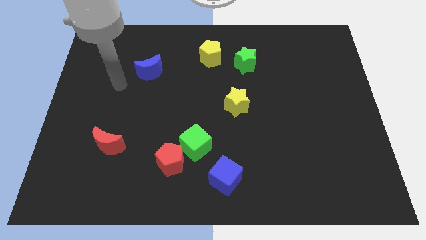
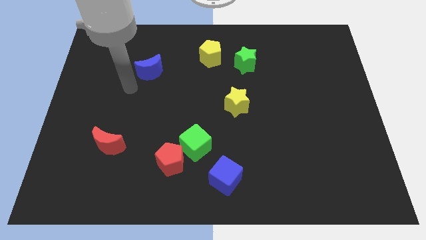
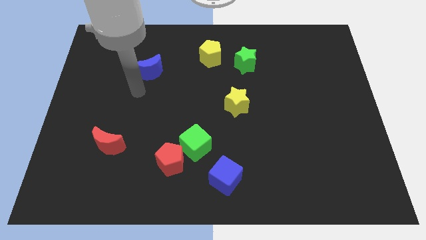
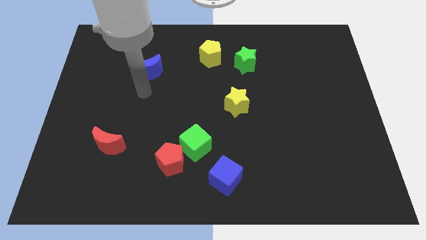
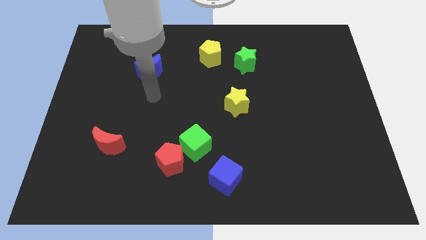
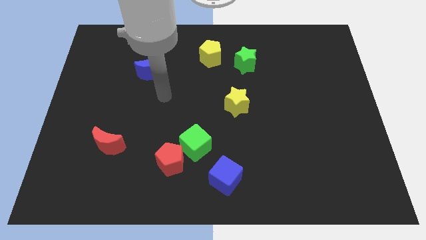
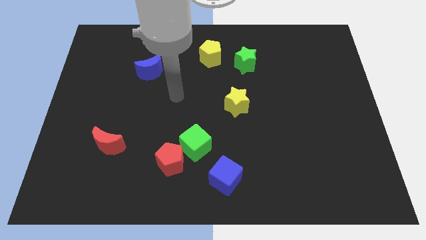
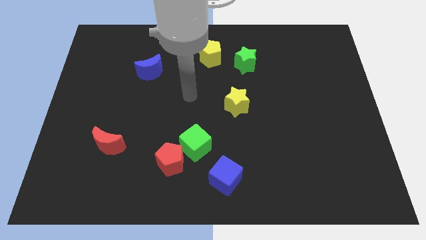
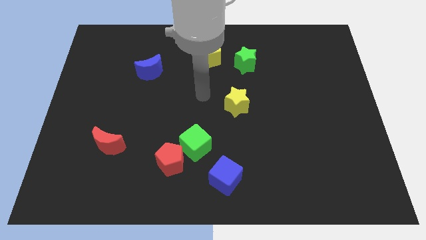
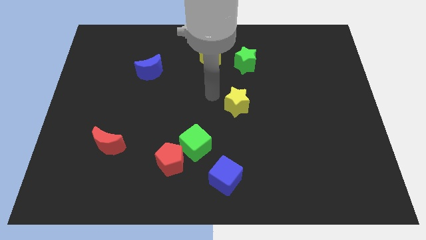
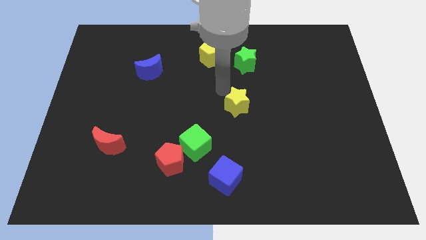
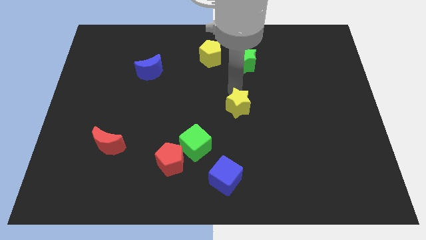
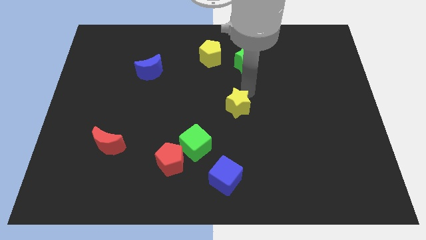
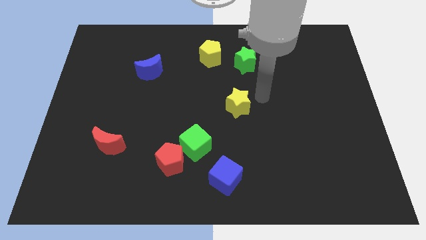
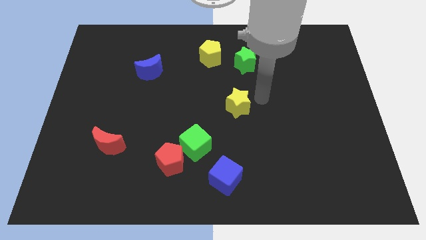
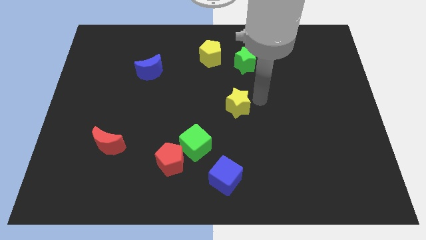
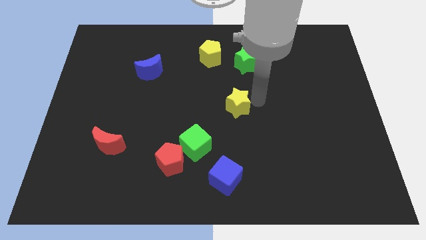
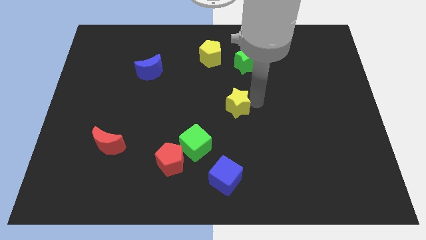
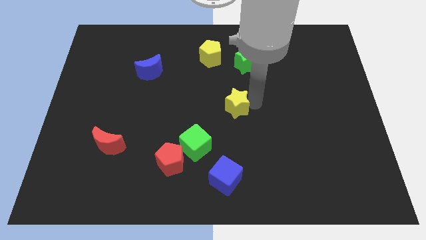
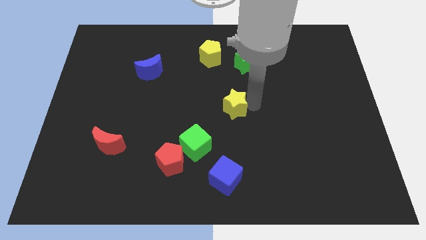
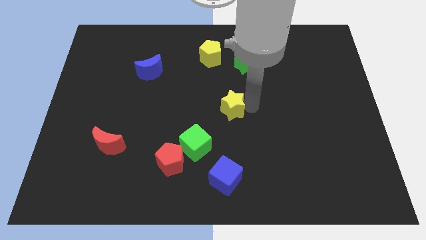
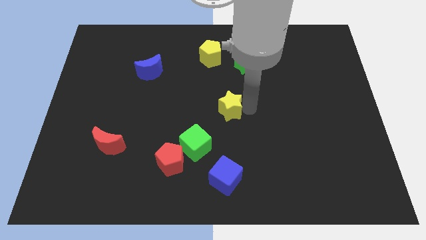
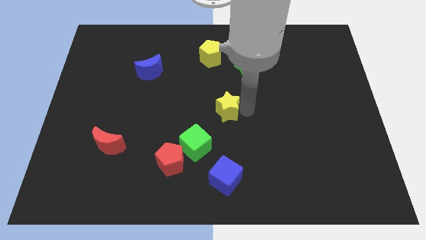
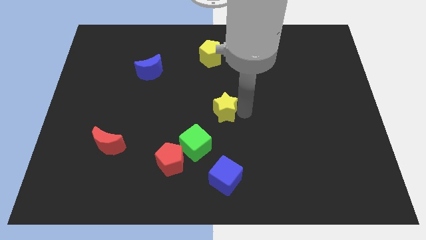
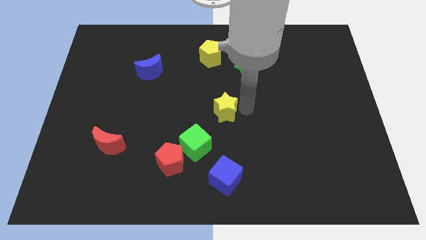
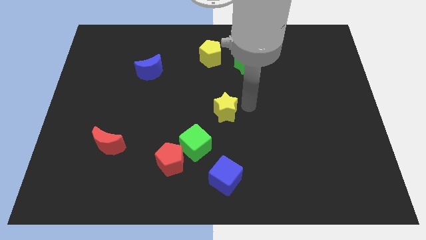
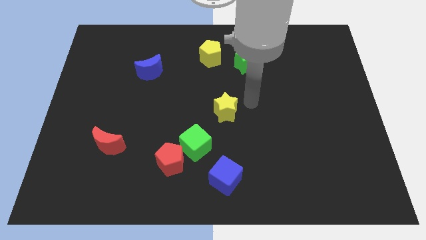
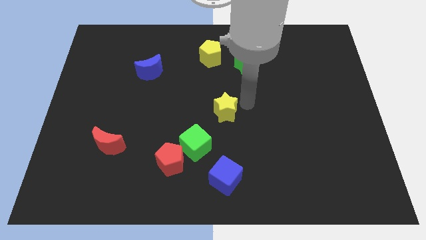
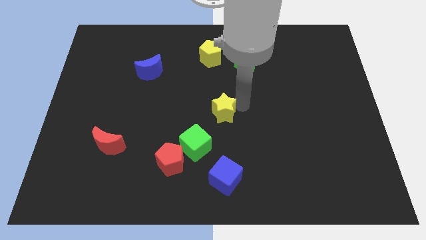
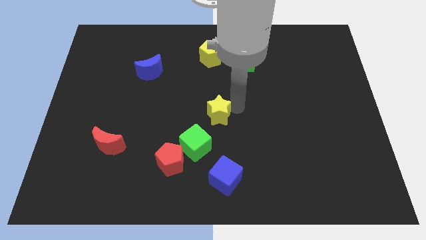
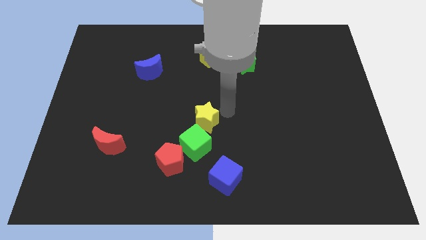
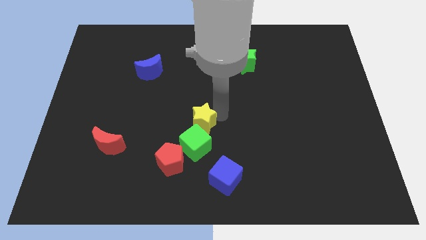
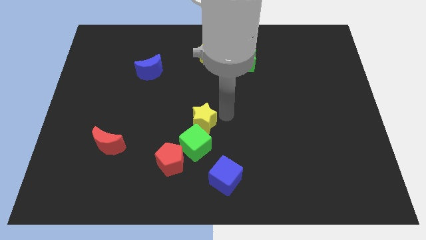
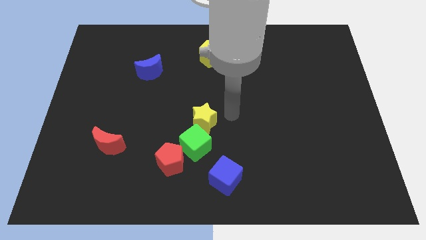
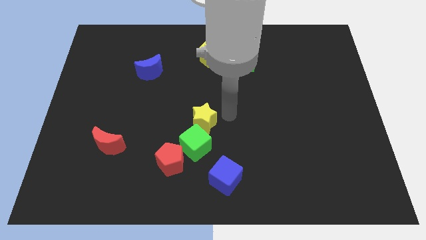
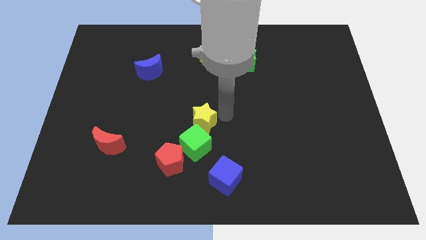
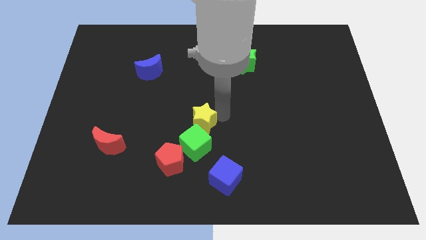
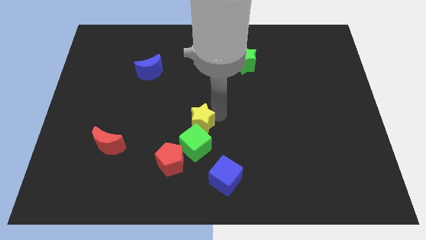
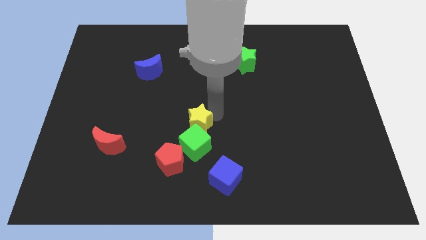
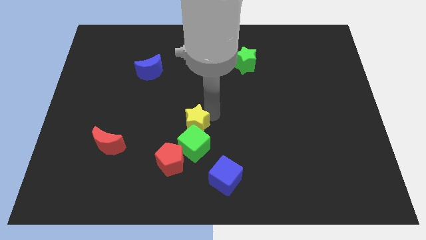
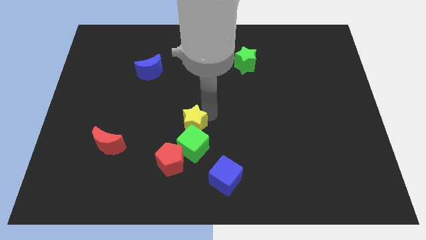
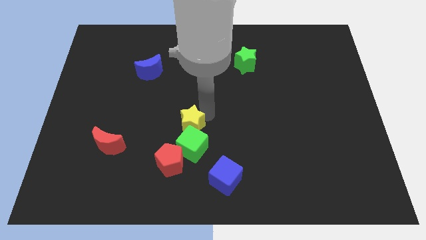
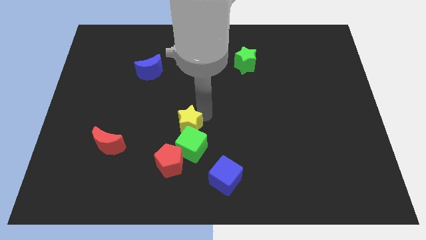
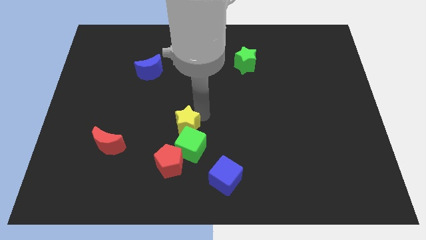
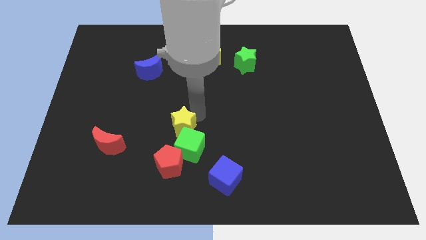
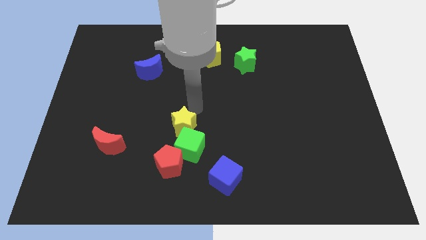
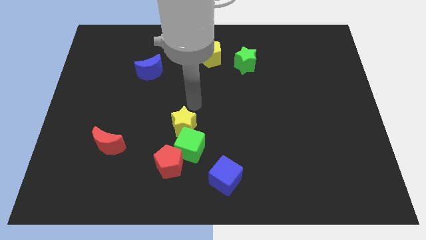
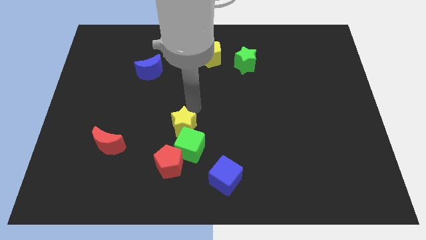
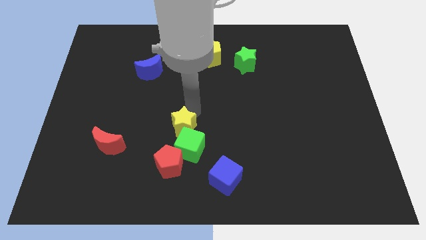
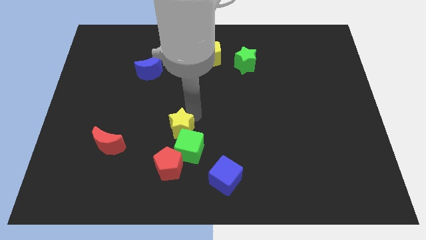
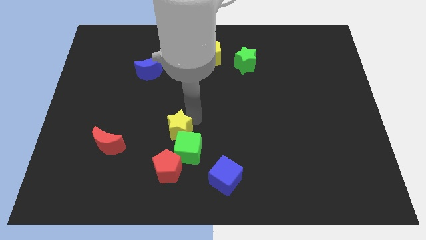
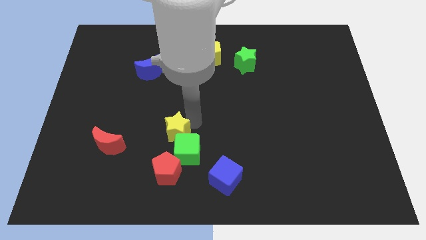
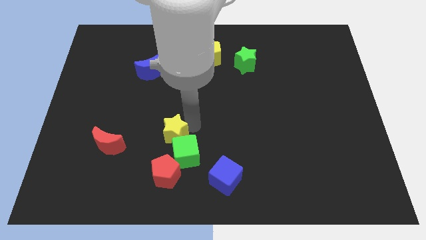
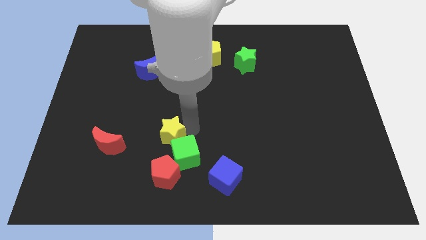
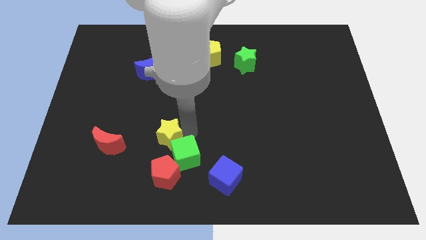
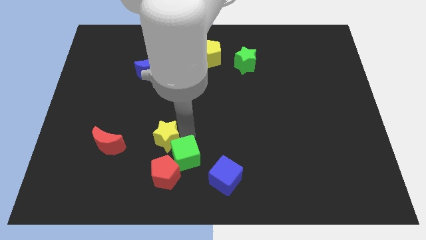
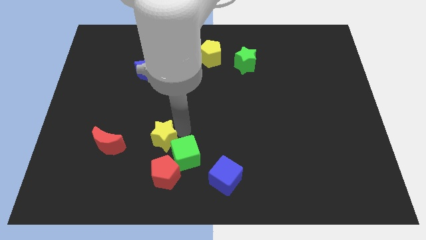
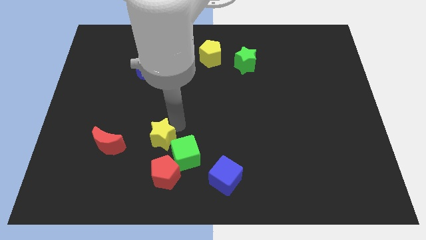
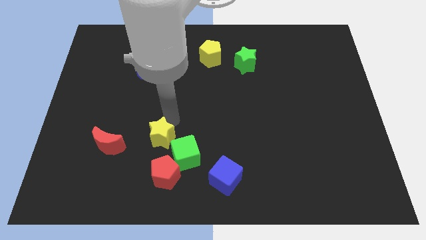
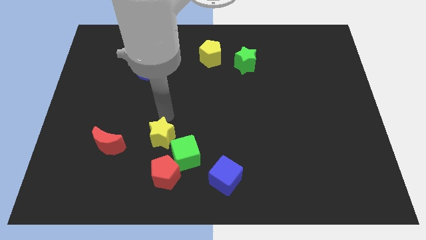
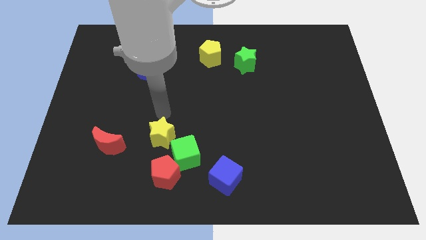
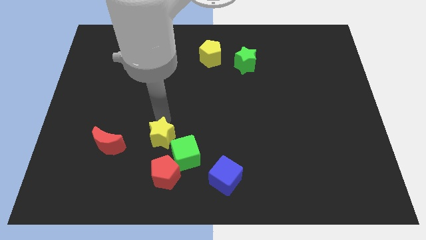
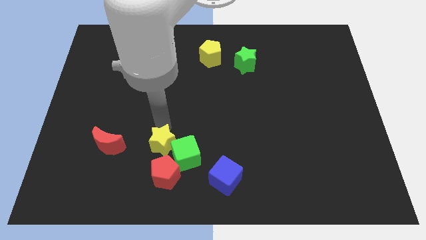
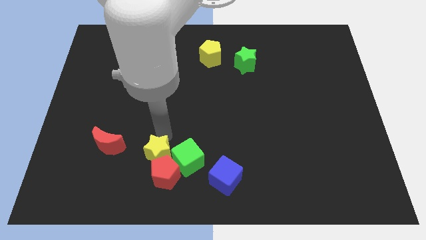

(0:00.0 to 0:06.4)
slide the yellow star to the red pentagon

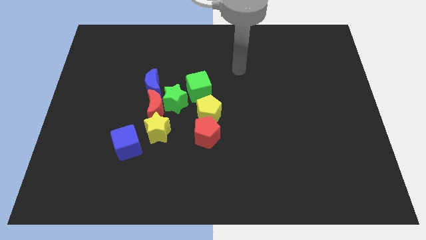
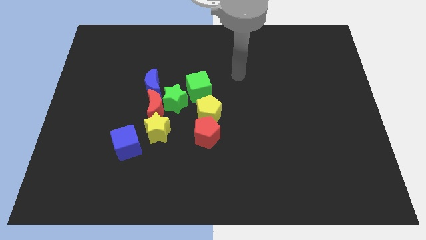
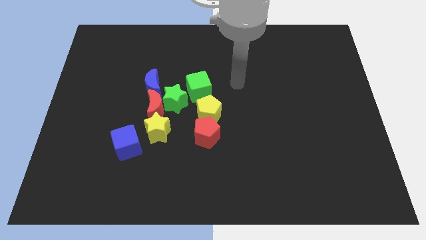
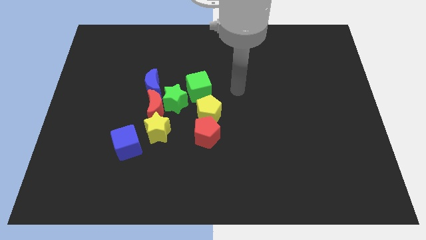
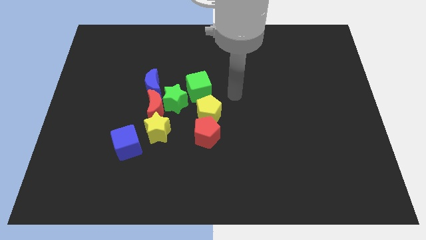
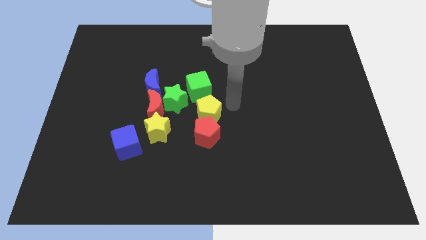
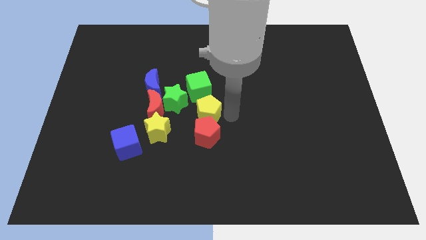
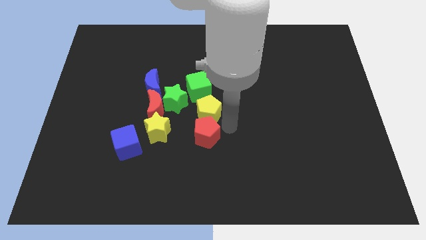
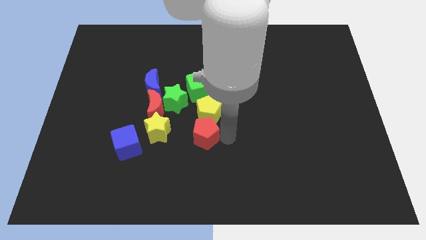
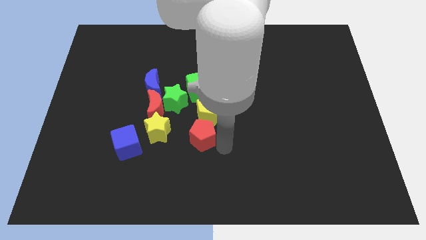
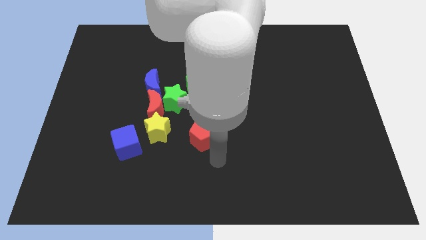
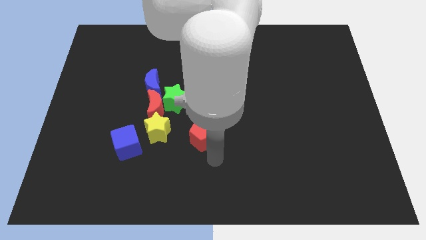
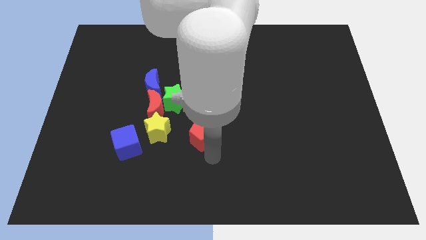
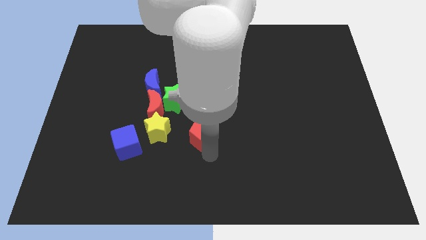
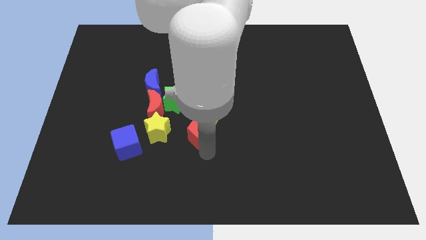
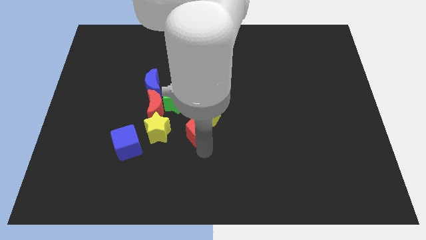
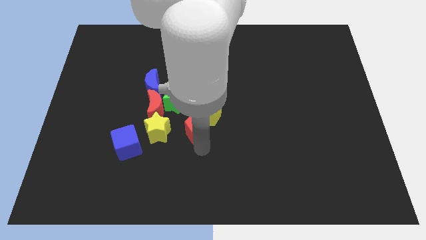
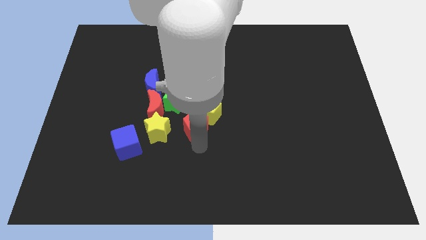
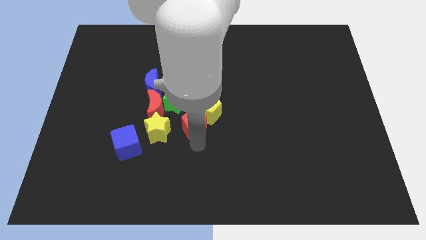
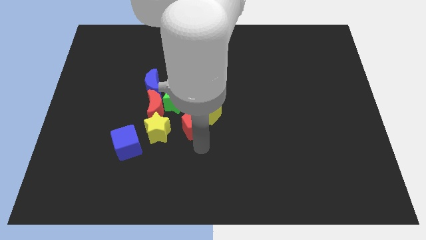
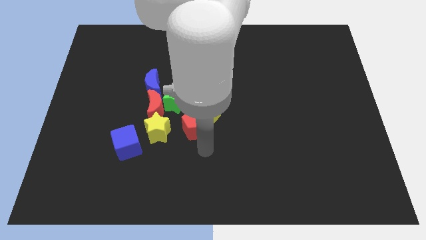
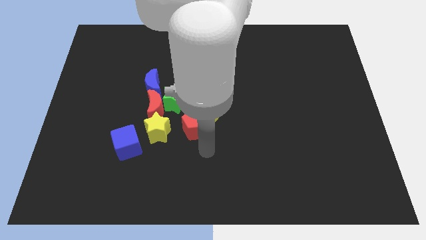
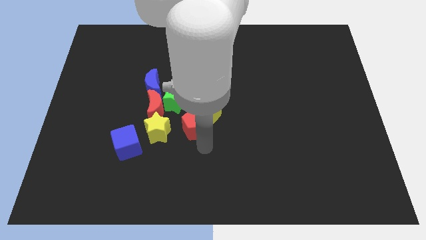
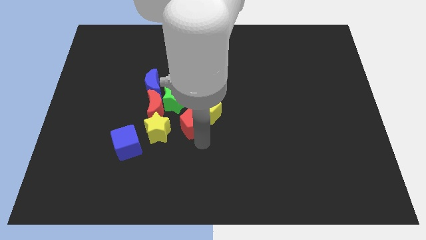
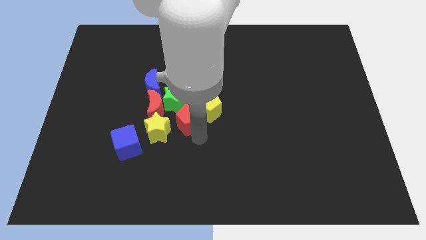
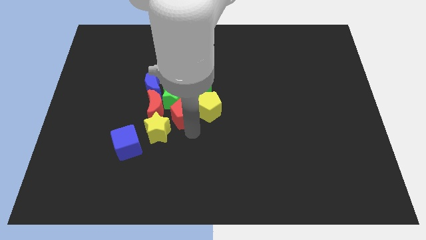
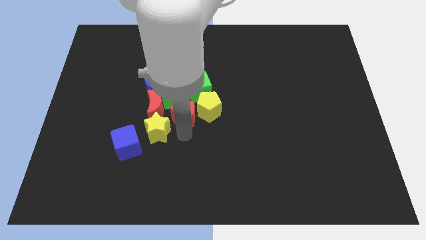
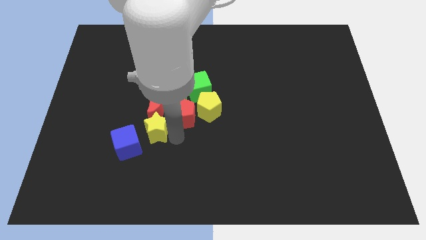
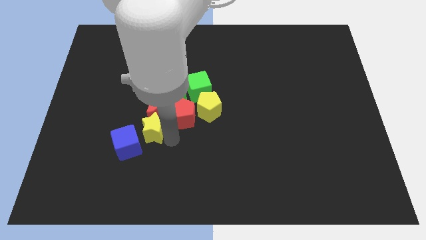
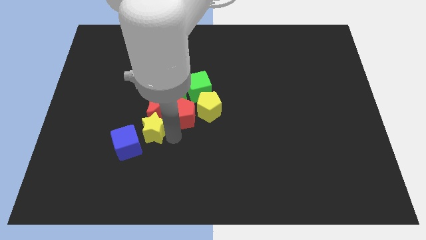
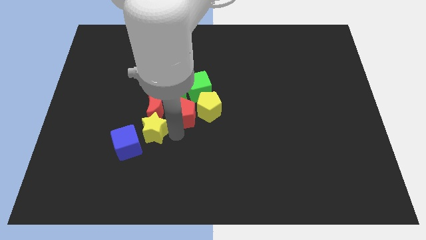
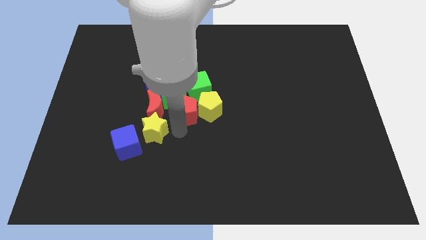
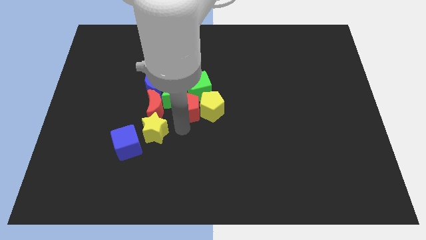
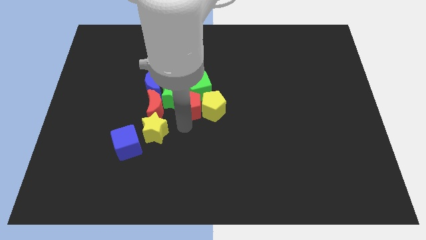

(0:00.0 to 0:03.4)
move the red pentagon close to the green cube
